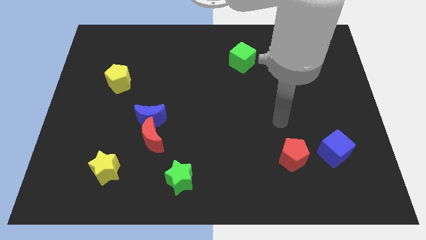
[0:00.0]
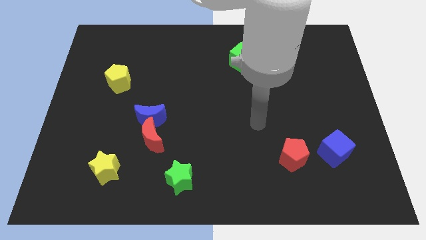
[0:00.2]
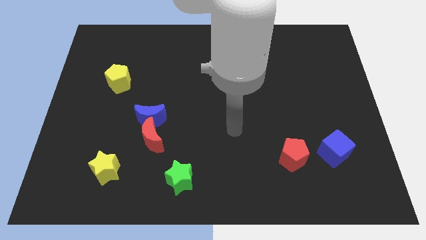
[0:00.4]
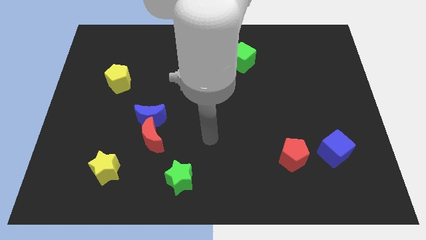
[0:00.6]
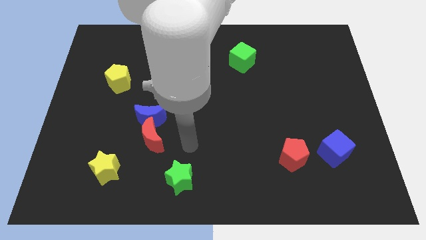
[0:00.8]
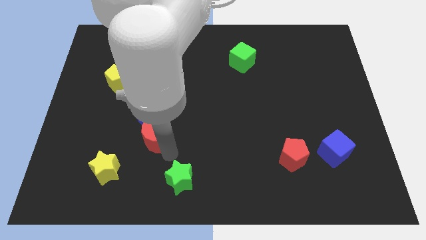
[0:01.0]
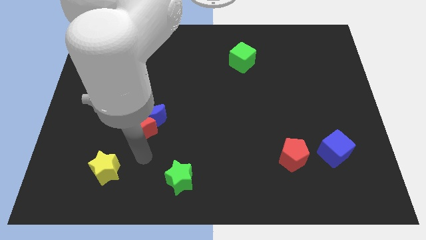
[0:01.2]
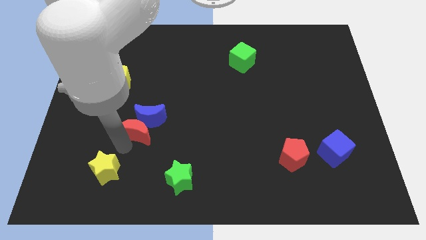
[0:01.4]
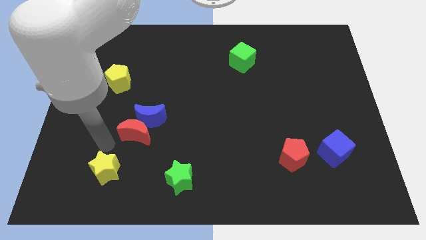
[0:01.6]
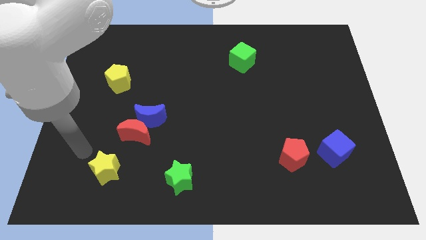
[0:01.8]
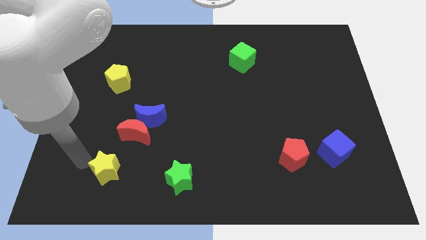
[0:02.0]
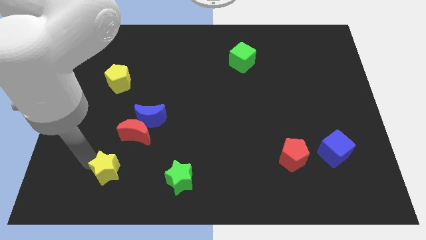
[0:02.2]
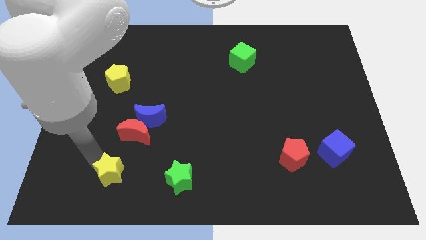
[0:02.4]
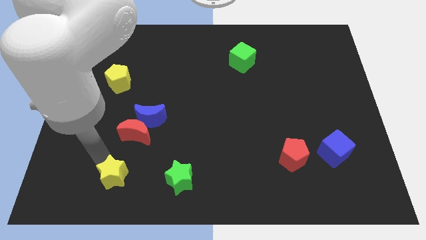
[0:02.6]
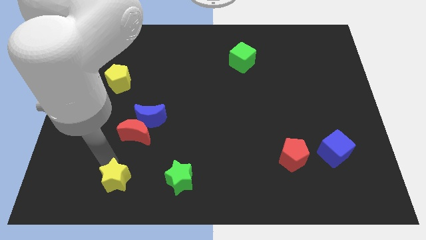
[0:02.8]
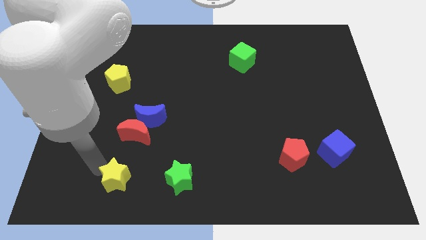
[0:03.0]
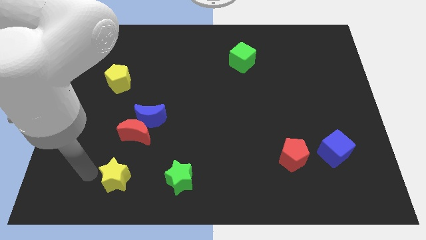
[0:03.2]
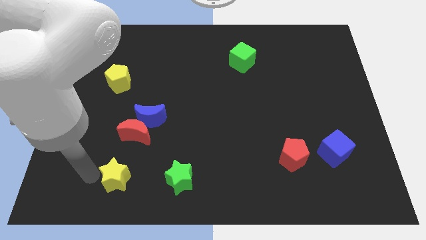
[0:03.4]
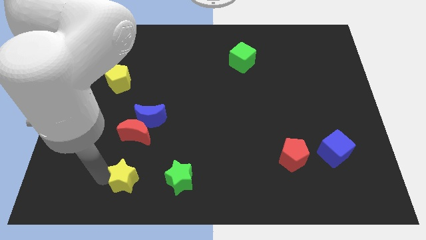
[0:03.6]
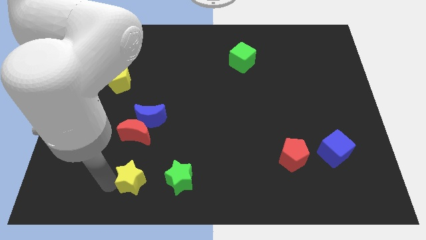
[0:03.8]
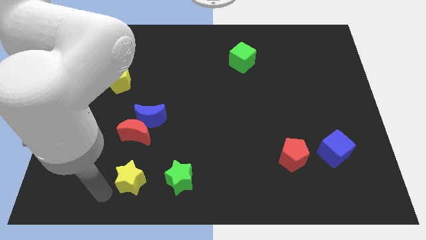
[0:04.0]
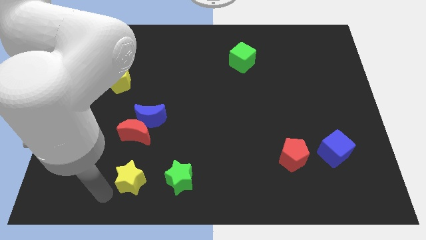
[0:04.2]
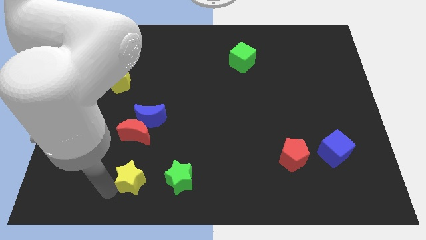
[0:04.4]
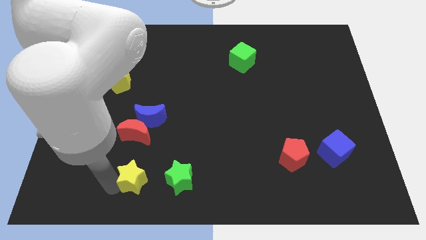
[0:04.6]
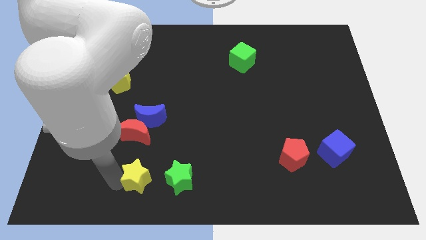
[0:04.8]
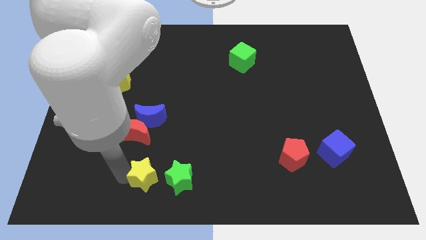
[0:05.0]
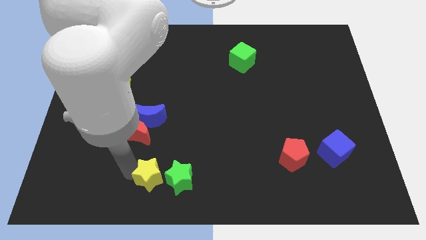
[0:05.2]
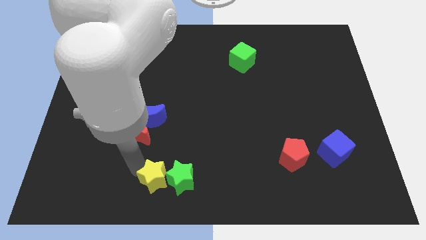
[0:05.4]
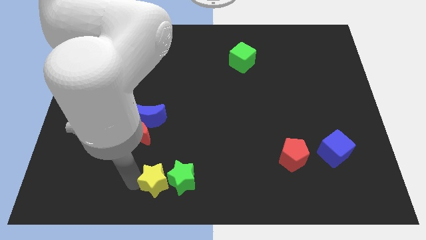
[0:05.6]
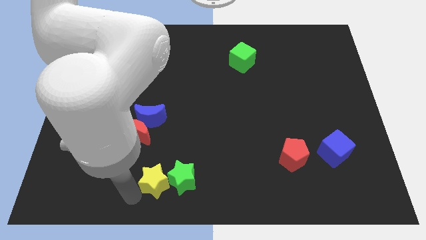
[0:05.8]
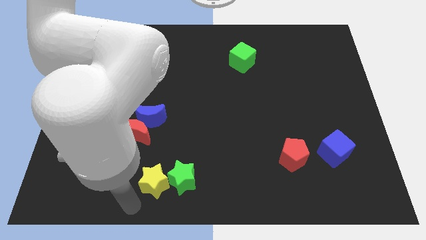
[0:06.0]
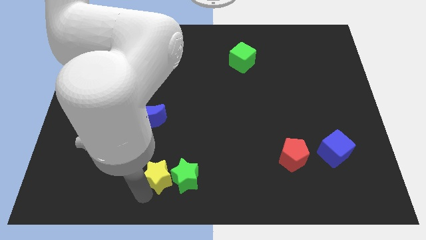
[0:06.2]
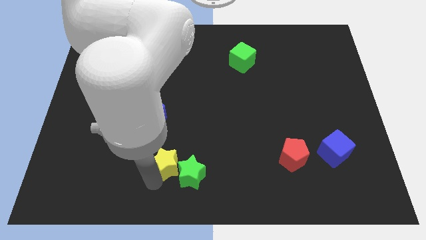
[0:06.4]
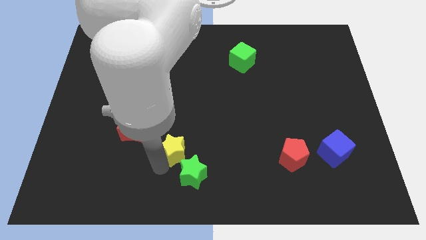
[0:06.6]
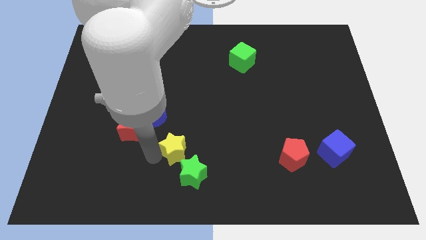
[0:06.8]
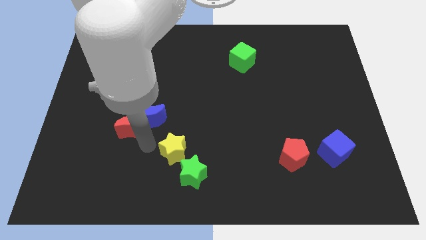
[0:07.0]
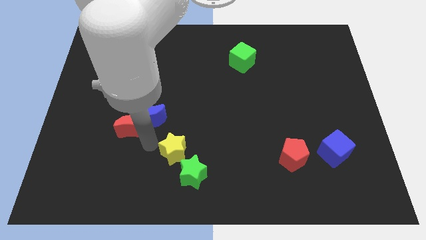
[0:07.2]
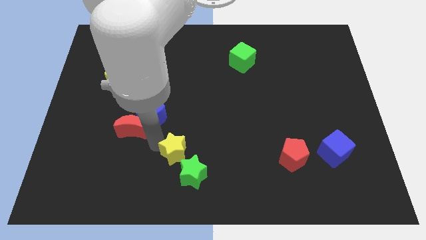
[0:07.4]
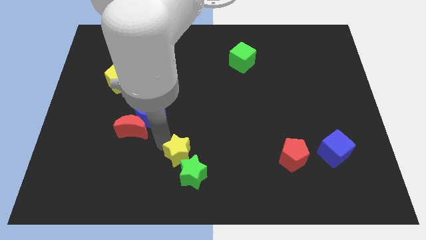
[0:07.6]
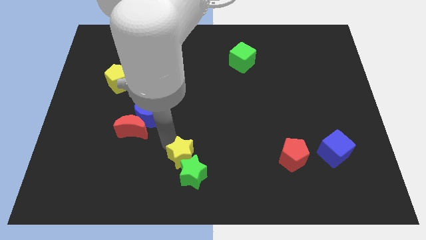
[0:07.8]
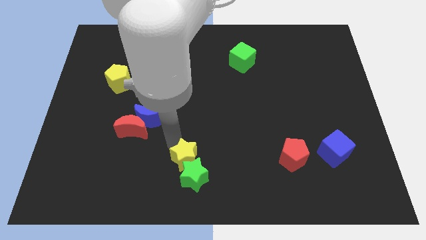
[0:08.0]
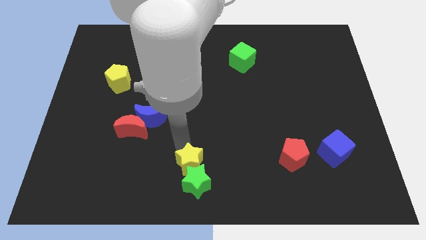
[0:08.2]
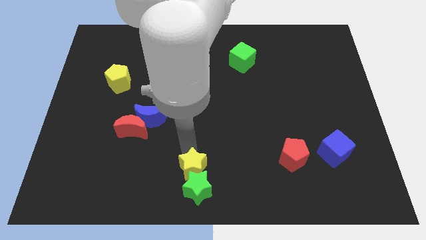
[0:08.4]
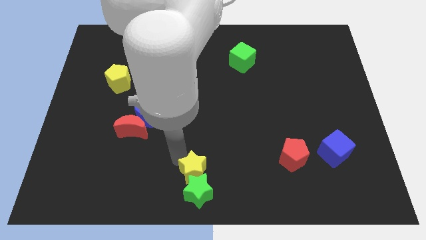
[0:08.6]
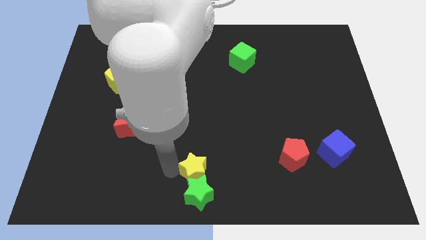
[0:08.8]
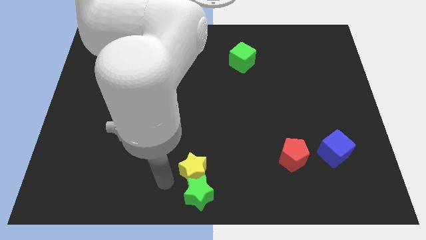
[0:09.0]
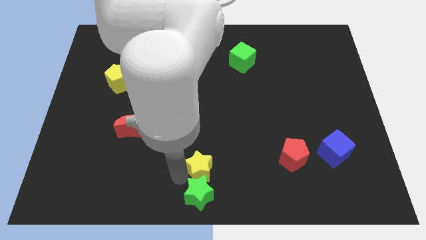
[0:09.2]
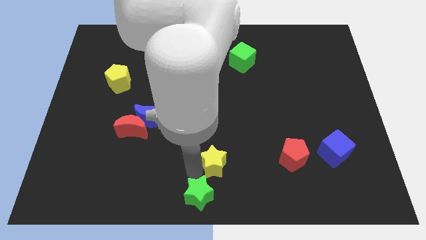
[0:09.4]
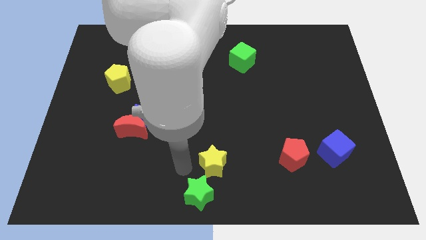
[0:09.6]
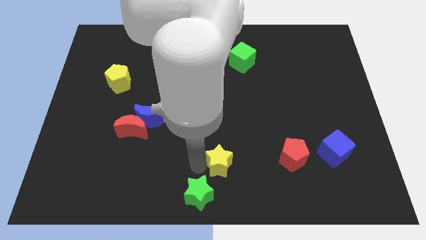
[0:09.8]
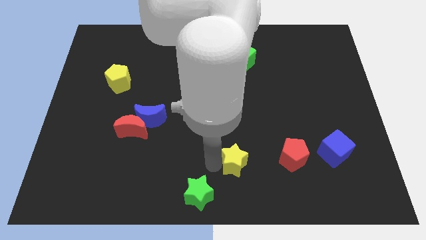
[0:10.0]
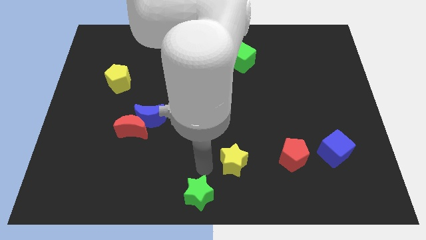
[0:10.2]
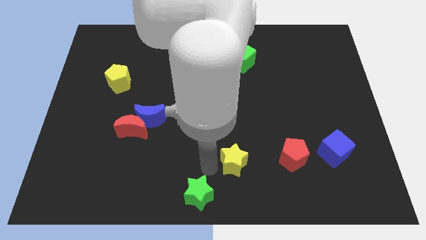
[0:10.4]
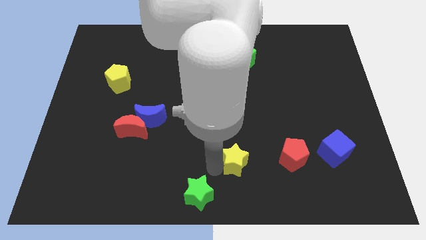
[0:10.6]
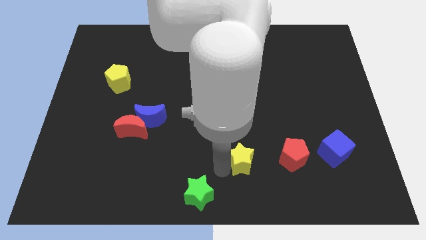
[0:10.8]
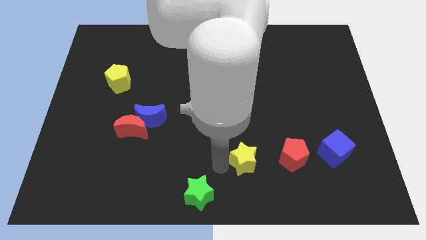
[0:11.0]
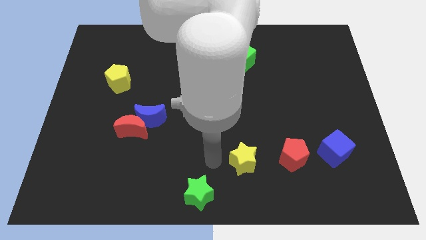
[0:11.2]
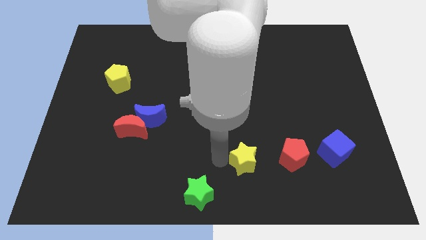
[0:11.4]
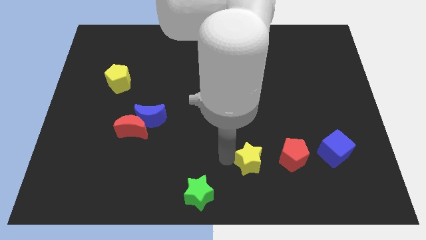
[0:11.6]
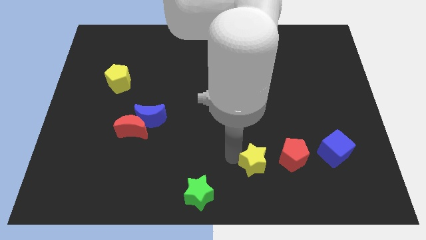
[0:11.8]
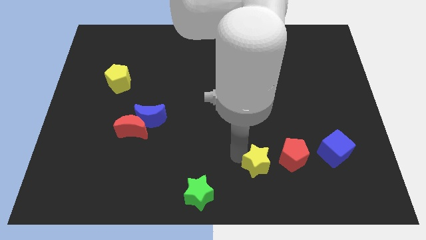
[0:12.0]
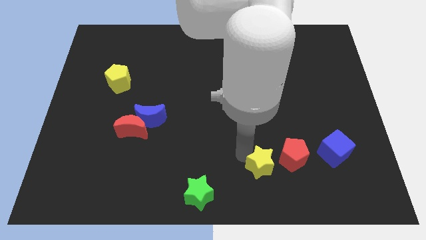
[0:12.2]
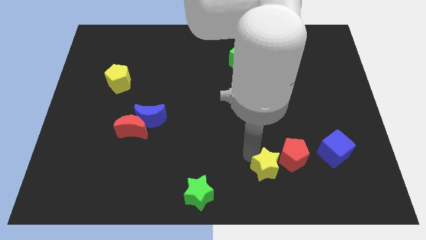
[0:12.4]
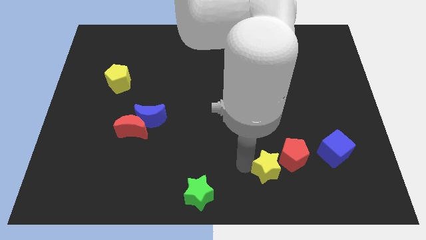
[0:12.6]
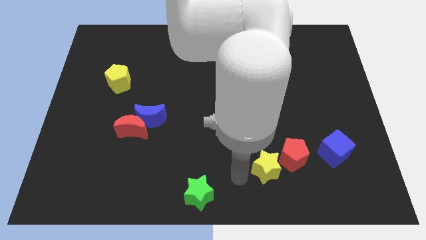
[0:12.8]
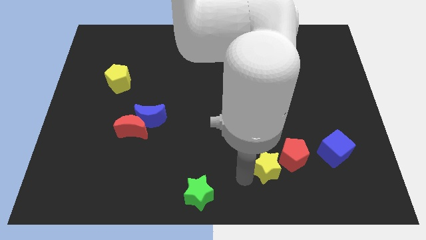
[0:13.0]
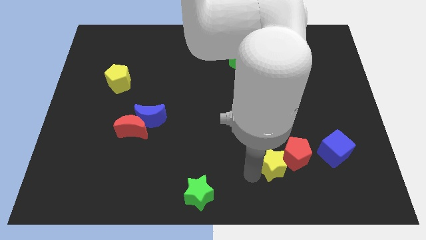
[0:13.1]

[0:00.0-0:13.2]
push the yellow star close to the red pentagon

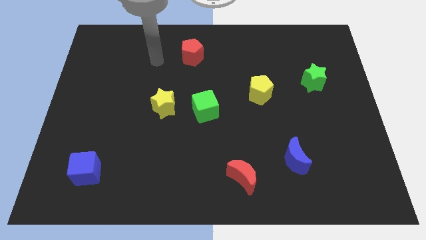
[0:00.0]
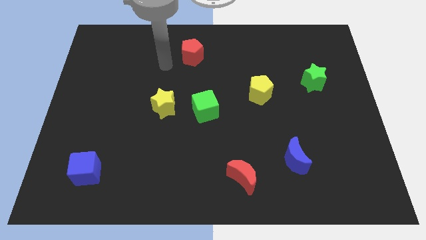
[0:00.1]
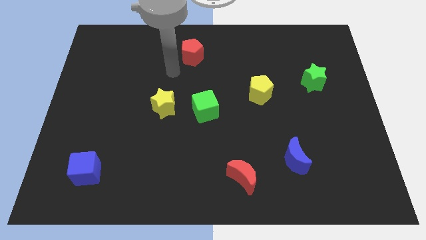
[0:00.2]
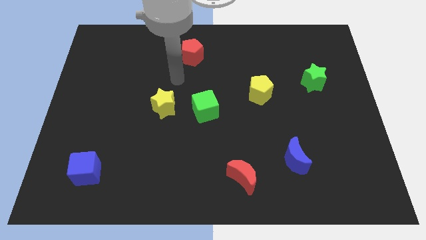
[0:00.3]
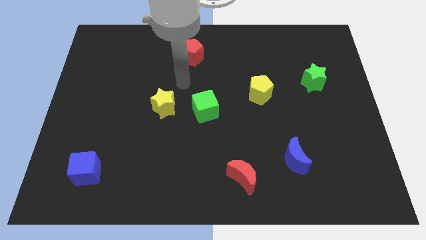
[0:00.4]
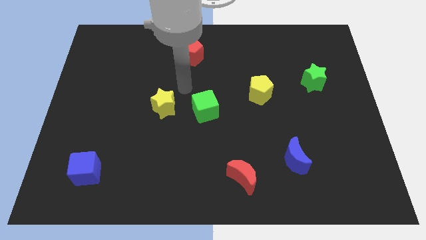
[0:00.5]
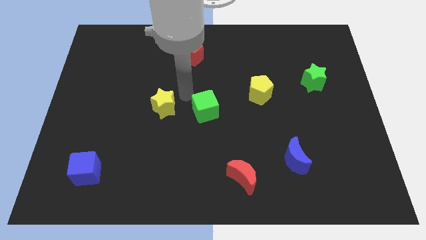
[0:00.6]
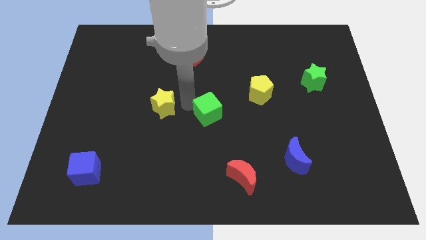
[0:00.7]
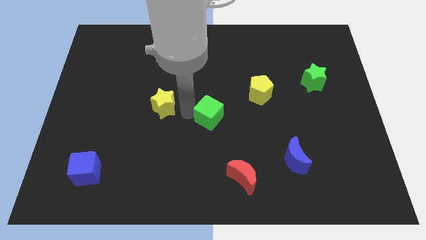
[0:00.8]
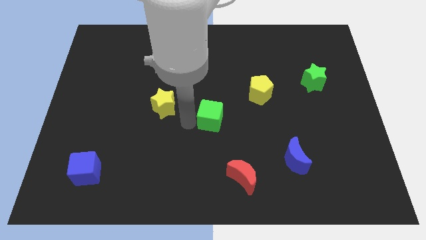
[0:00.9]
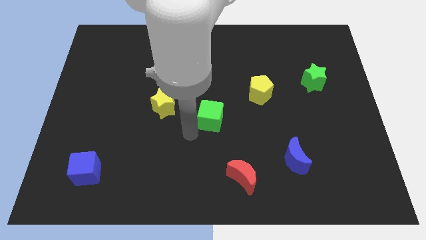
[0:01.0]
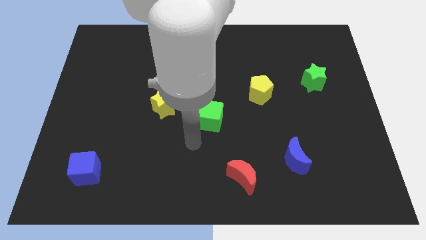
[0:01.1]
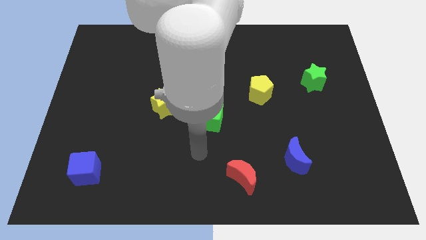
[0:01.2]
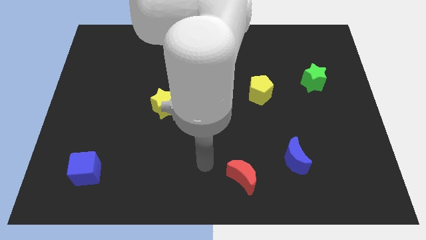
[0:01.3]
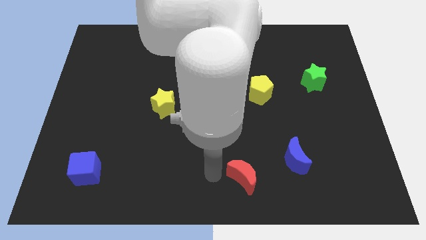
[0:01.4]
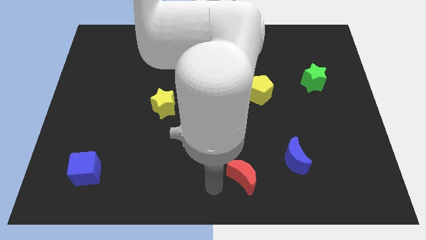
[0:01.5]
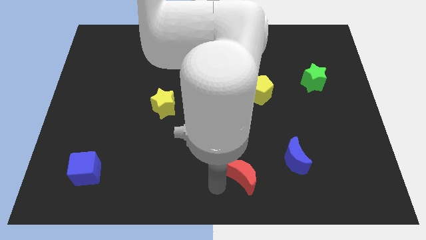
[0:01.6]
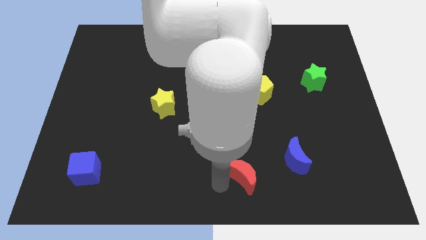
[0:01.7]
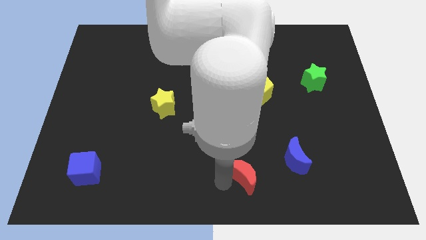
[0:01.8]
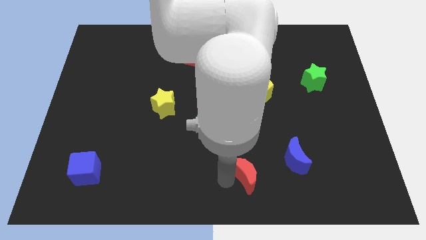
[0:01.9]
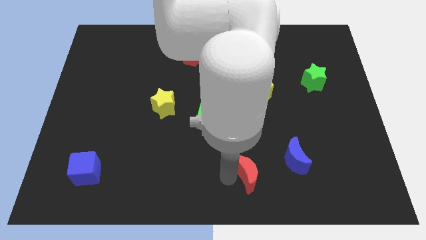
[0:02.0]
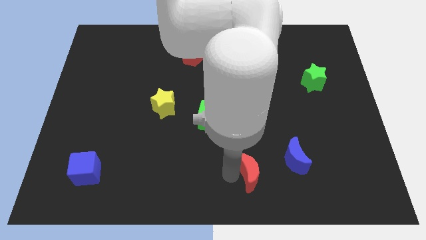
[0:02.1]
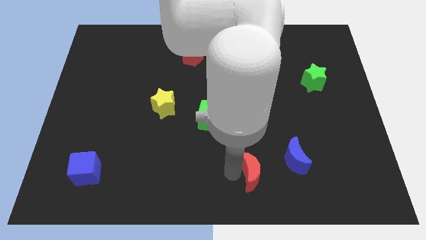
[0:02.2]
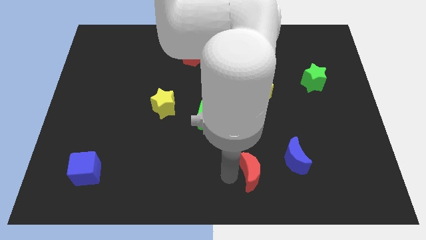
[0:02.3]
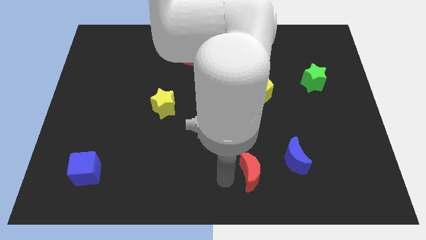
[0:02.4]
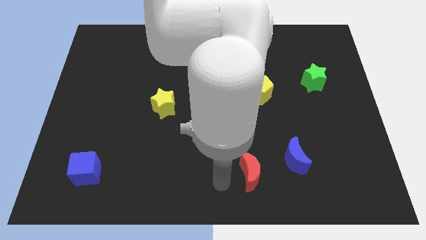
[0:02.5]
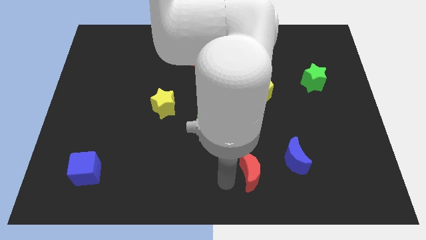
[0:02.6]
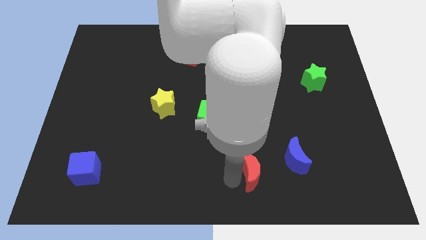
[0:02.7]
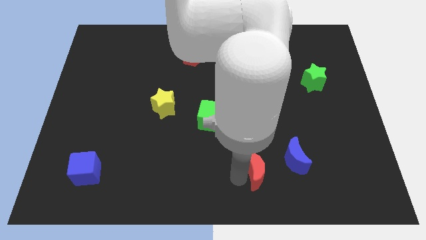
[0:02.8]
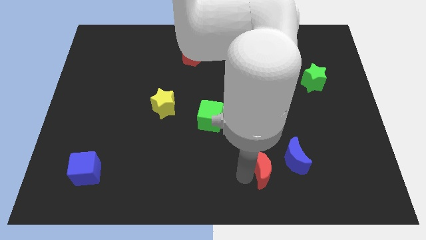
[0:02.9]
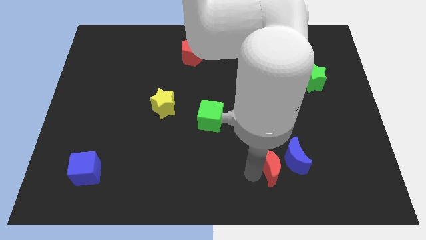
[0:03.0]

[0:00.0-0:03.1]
move the red moon to the blue moon
